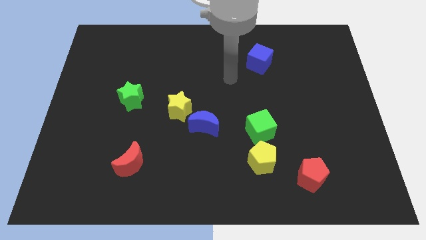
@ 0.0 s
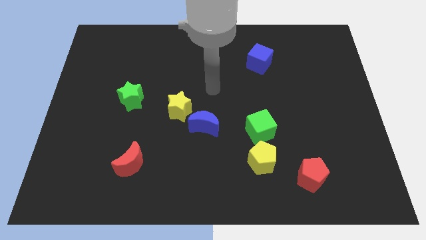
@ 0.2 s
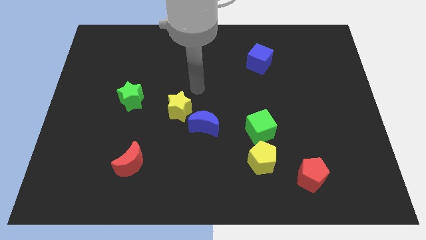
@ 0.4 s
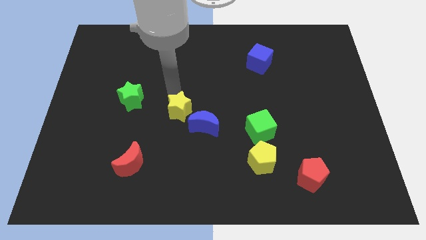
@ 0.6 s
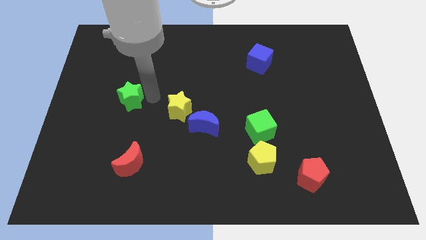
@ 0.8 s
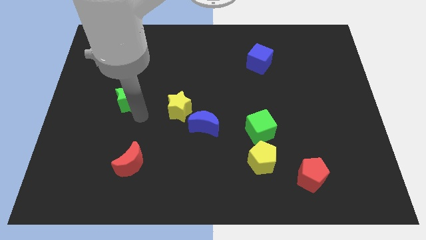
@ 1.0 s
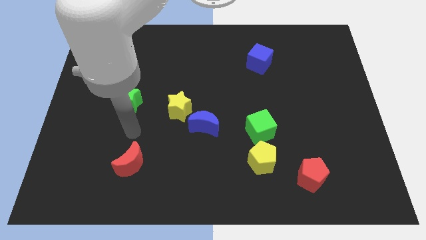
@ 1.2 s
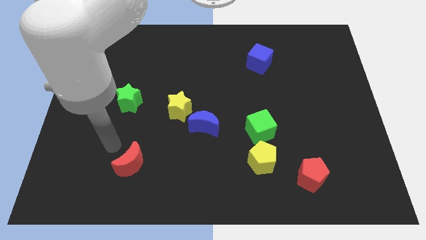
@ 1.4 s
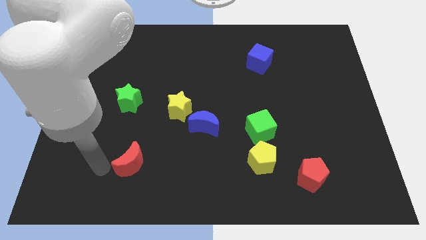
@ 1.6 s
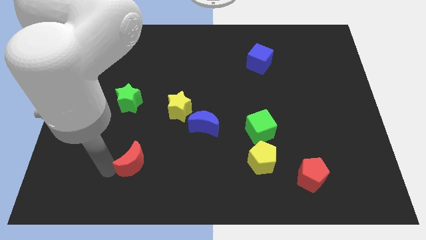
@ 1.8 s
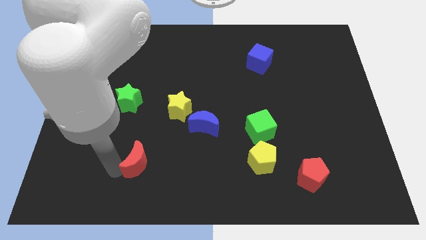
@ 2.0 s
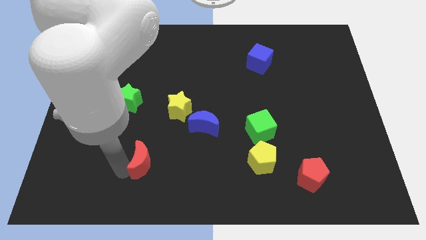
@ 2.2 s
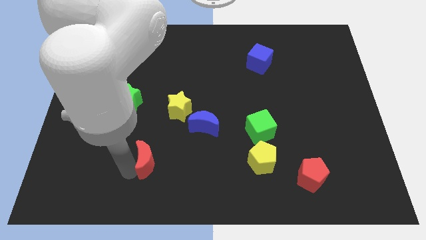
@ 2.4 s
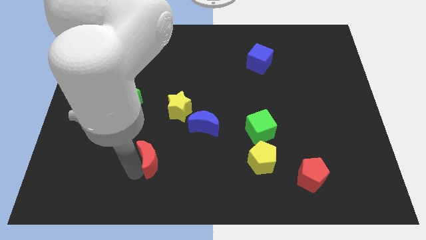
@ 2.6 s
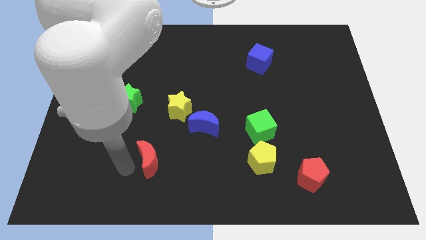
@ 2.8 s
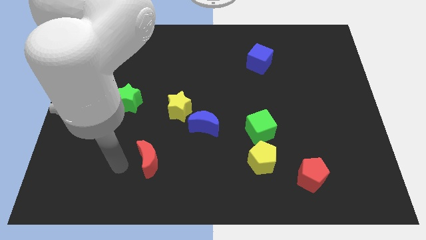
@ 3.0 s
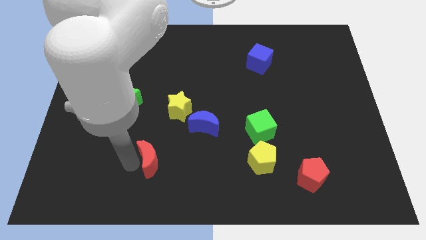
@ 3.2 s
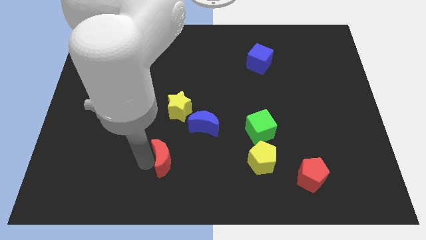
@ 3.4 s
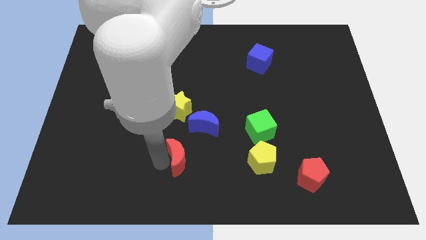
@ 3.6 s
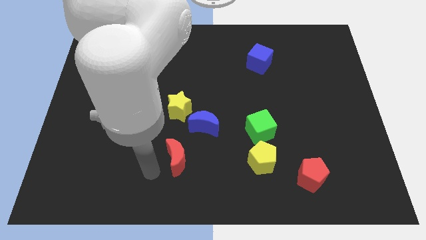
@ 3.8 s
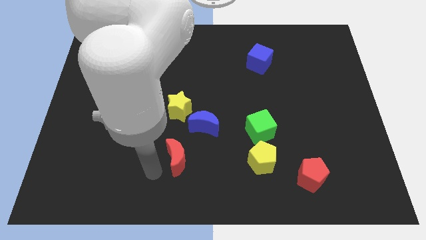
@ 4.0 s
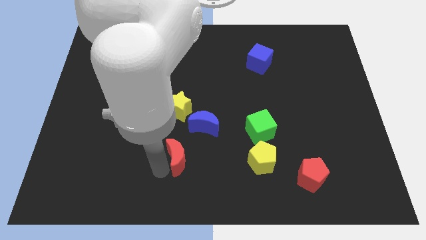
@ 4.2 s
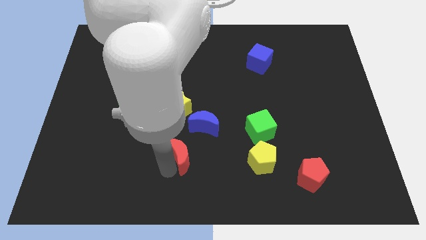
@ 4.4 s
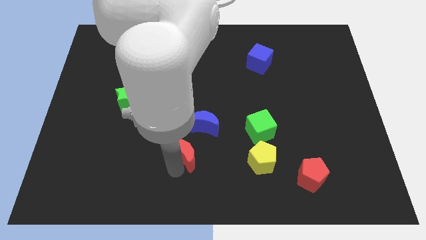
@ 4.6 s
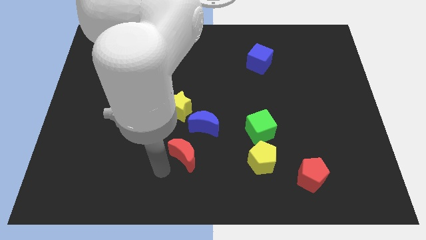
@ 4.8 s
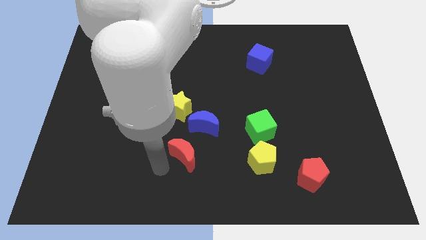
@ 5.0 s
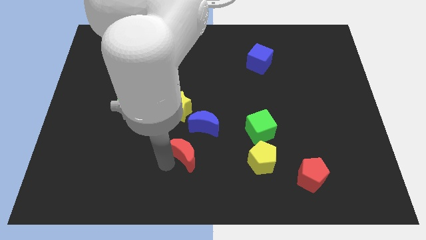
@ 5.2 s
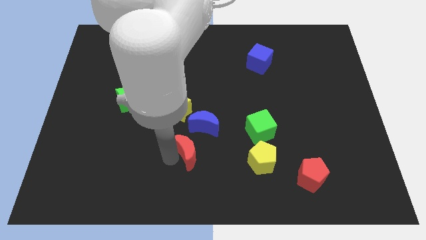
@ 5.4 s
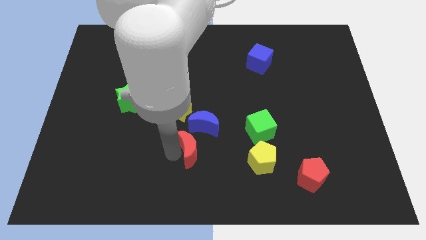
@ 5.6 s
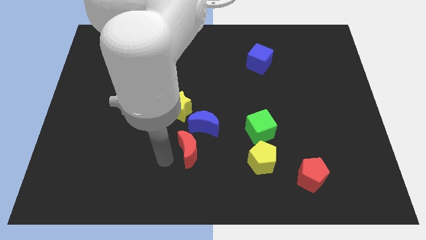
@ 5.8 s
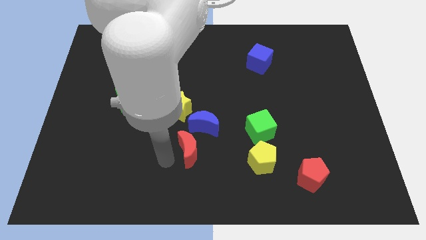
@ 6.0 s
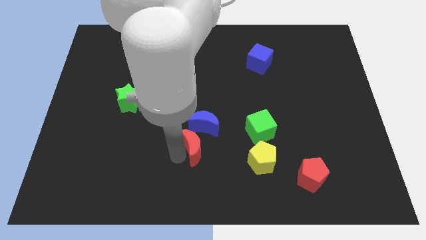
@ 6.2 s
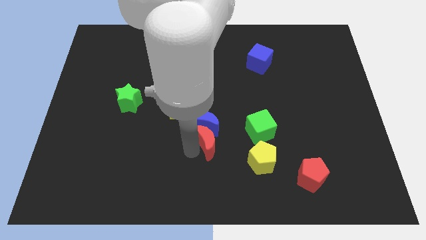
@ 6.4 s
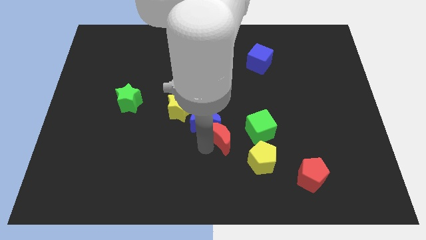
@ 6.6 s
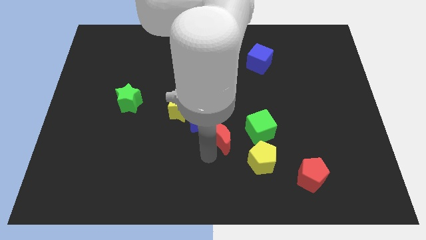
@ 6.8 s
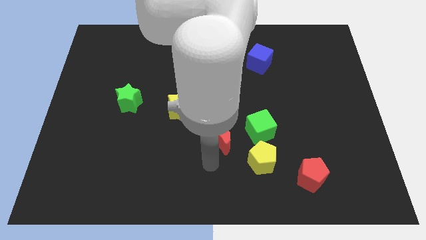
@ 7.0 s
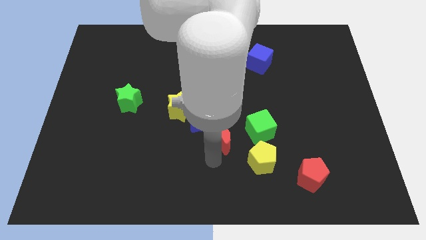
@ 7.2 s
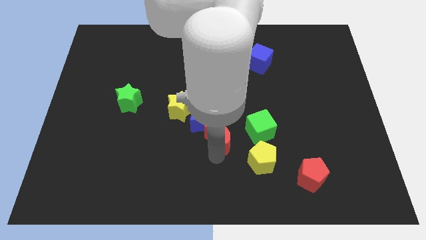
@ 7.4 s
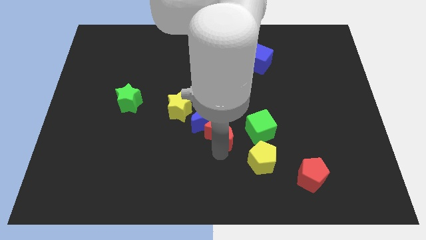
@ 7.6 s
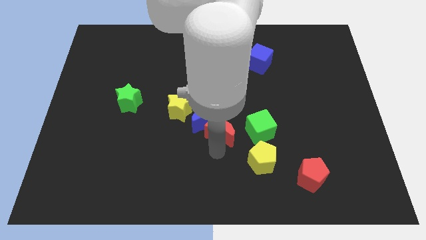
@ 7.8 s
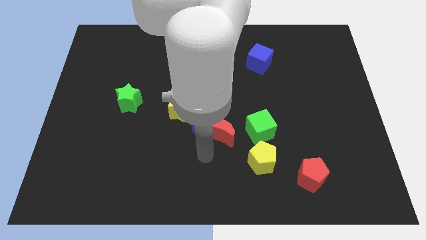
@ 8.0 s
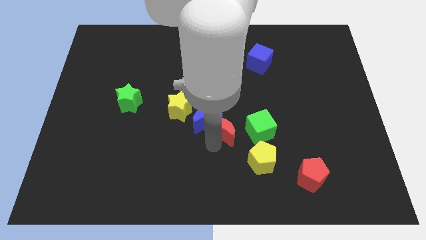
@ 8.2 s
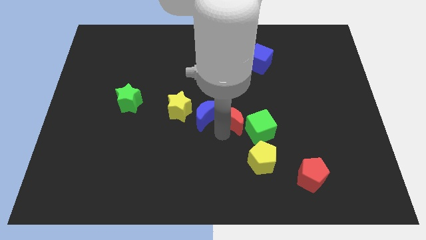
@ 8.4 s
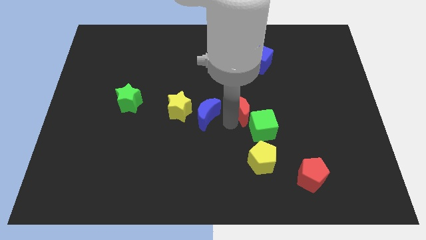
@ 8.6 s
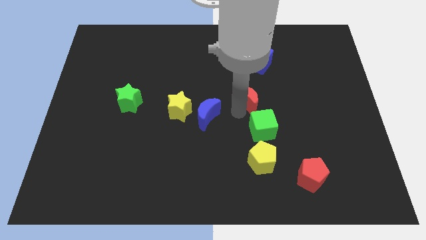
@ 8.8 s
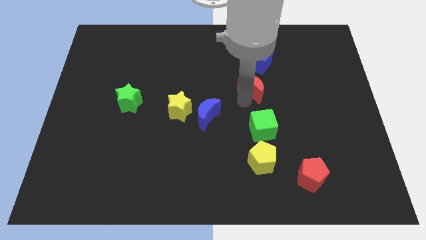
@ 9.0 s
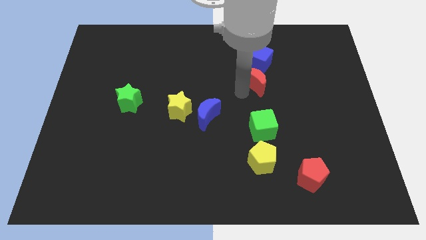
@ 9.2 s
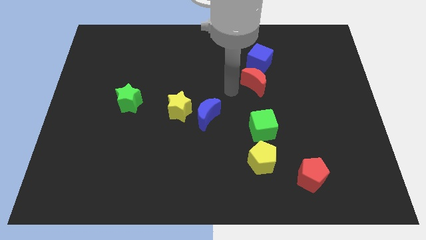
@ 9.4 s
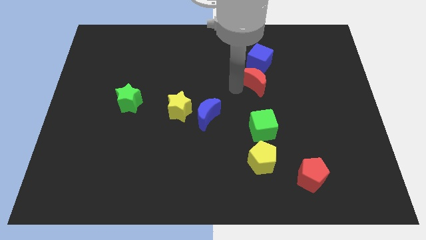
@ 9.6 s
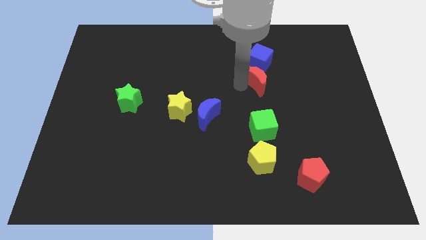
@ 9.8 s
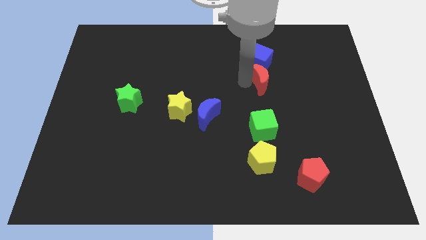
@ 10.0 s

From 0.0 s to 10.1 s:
move the red moon to the bottom right side of the blue cube

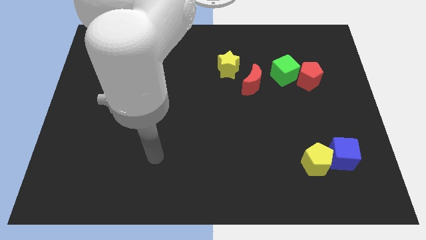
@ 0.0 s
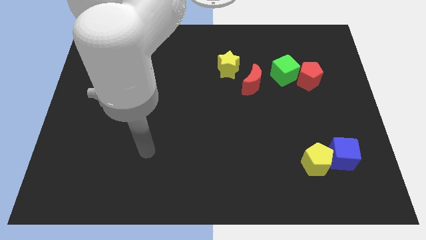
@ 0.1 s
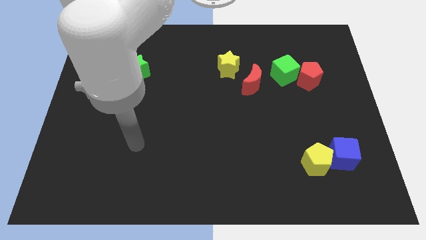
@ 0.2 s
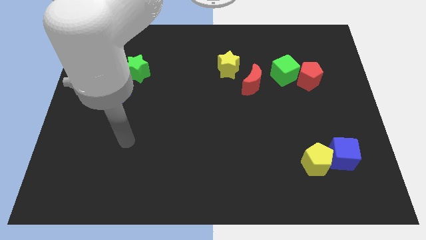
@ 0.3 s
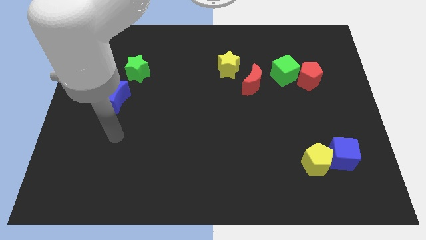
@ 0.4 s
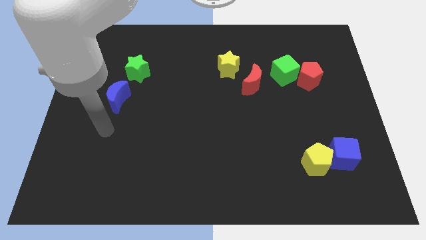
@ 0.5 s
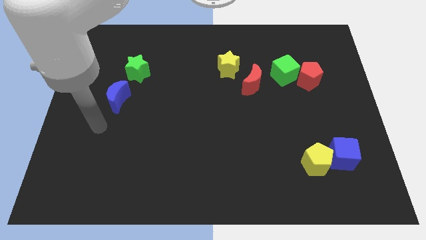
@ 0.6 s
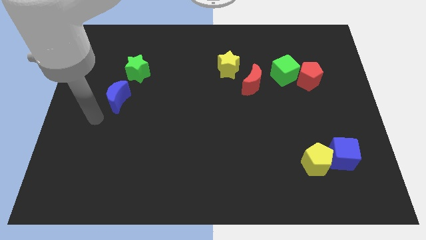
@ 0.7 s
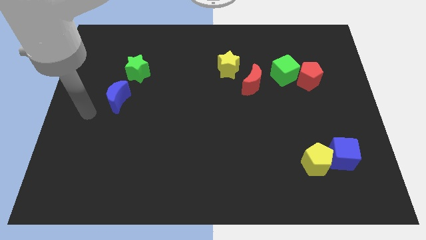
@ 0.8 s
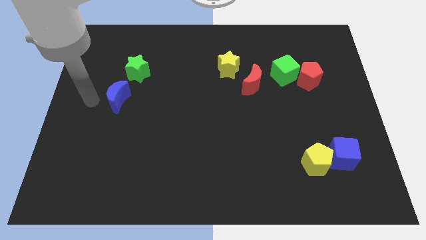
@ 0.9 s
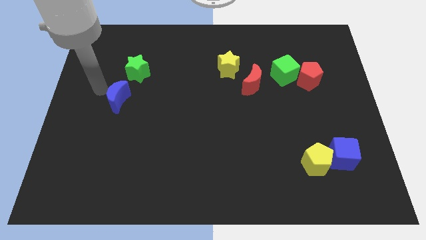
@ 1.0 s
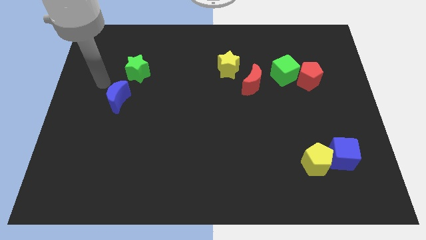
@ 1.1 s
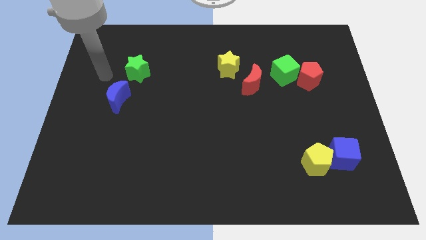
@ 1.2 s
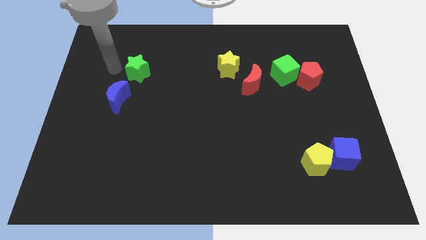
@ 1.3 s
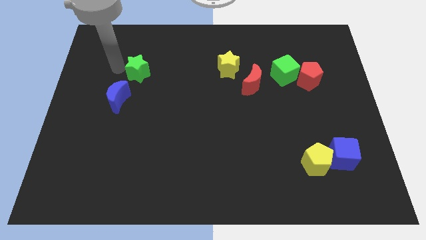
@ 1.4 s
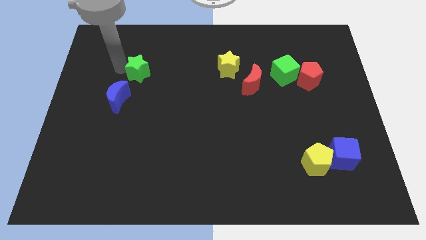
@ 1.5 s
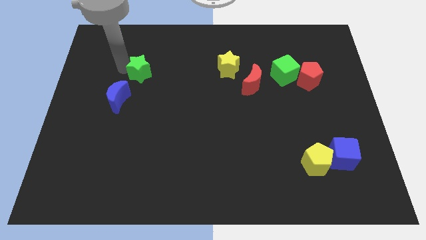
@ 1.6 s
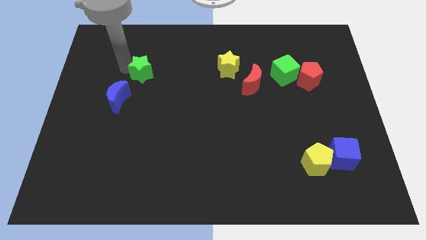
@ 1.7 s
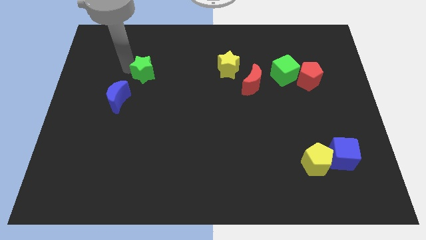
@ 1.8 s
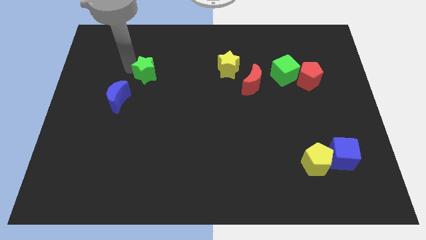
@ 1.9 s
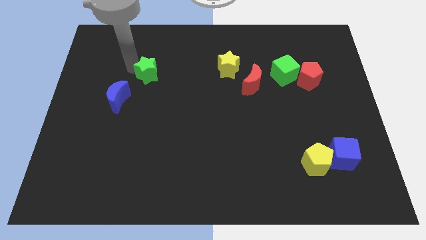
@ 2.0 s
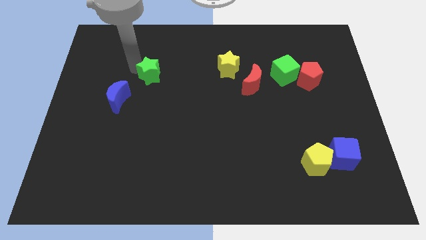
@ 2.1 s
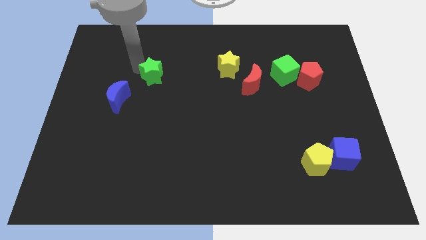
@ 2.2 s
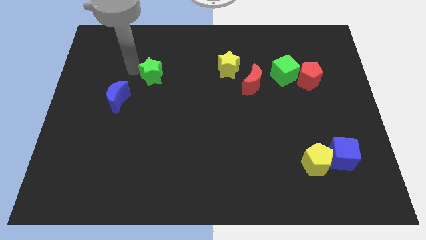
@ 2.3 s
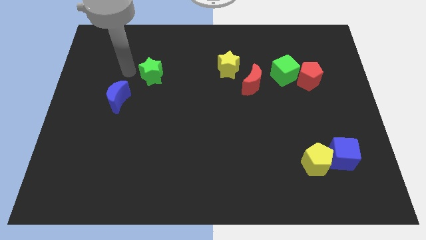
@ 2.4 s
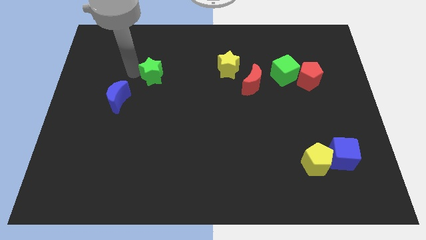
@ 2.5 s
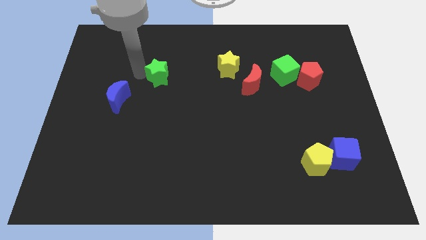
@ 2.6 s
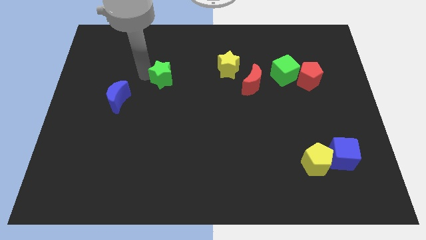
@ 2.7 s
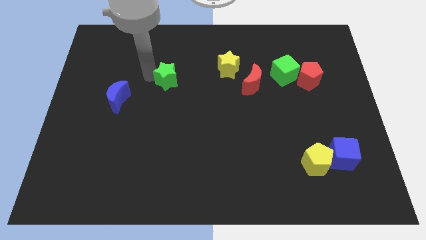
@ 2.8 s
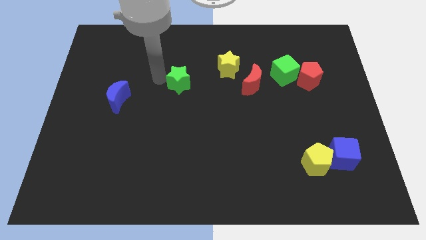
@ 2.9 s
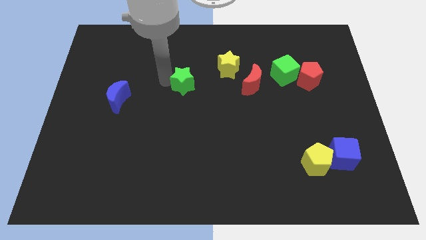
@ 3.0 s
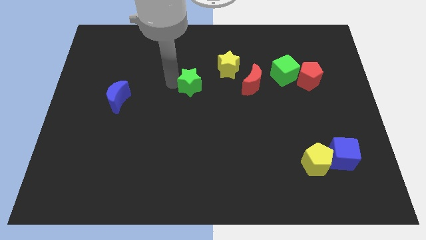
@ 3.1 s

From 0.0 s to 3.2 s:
move the green star diagonally down and to the left of the yellow star

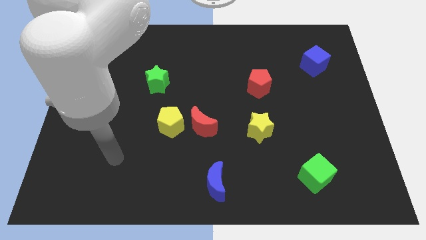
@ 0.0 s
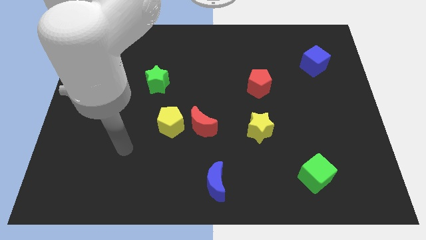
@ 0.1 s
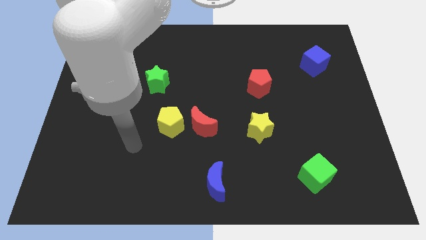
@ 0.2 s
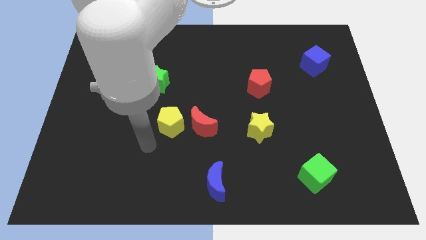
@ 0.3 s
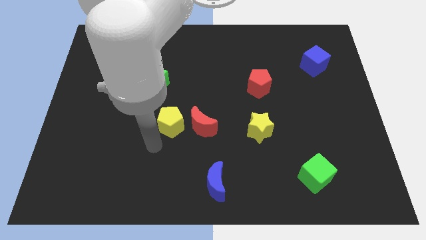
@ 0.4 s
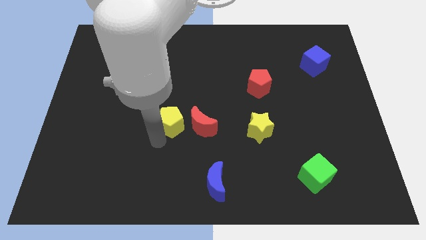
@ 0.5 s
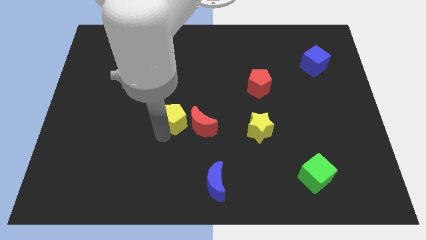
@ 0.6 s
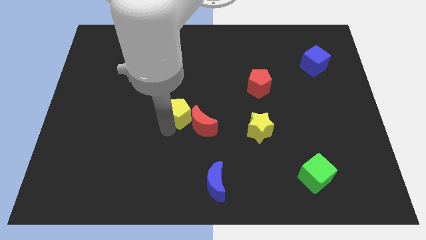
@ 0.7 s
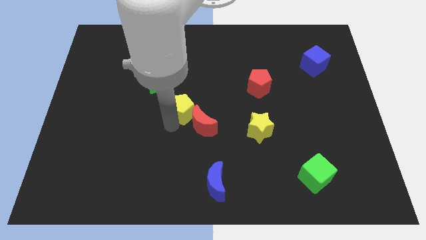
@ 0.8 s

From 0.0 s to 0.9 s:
put the yellow pentagon to the top side of the red moon
